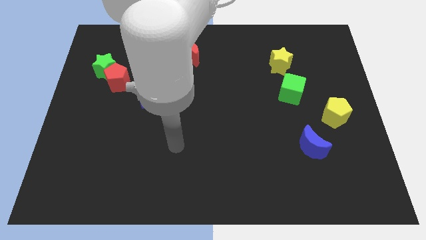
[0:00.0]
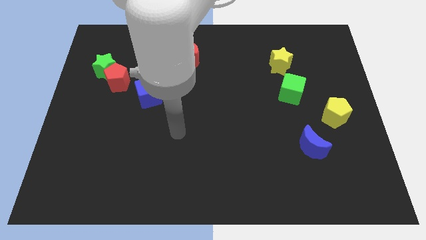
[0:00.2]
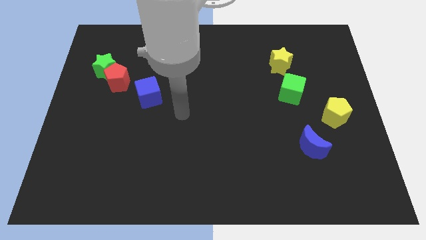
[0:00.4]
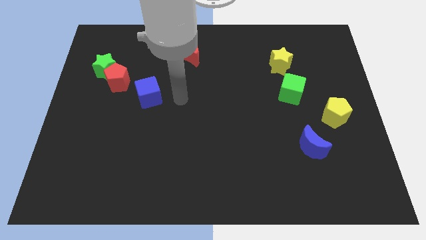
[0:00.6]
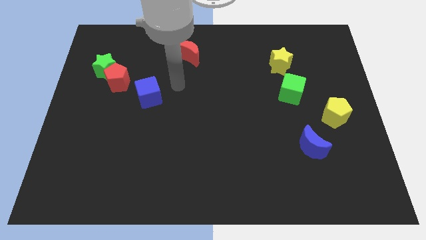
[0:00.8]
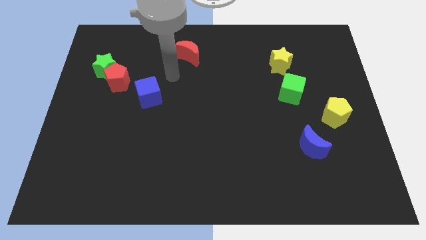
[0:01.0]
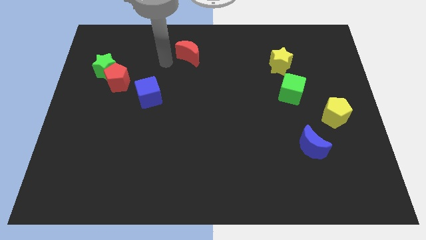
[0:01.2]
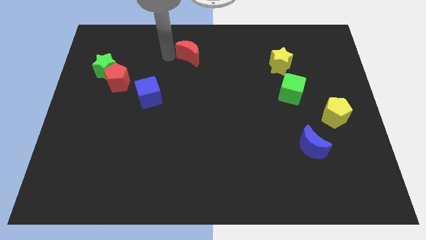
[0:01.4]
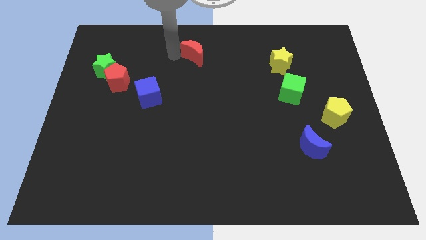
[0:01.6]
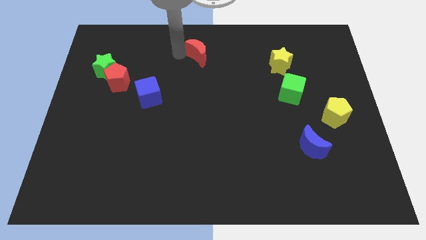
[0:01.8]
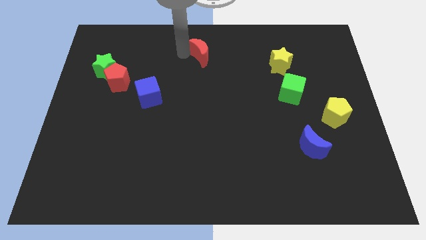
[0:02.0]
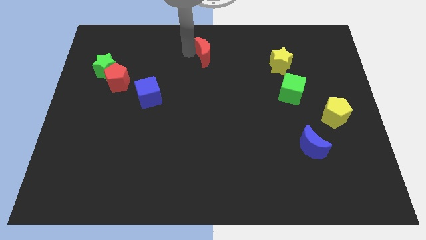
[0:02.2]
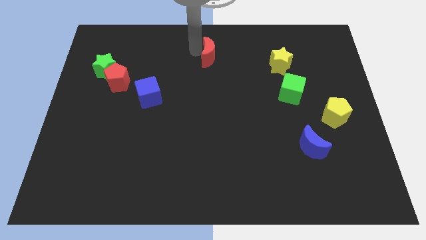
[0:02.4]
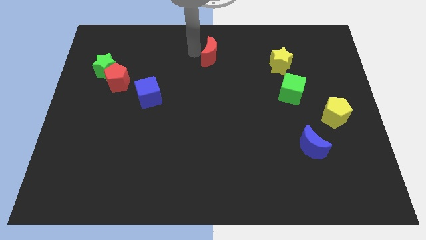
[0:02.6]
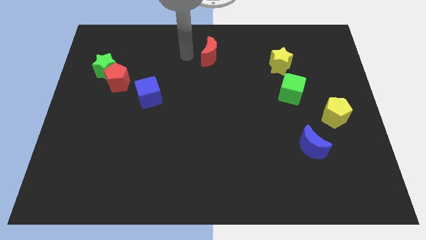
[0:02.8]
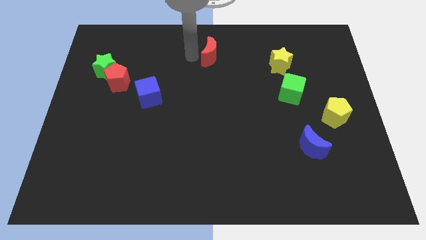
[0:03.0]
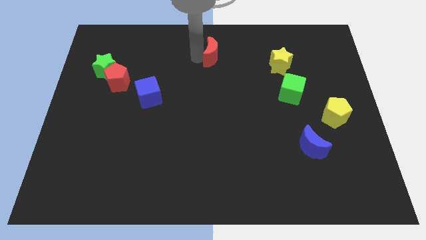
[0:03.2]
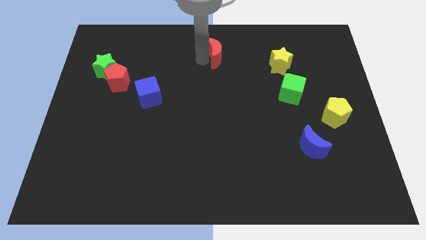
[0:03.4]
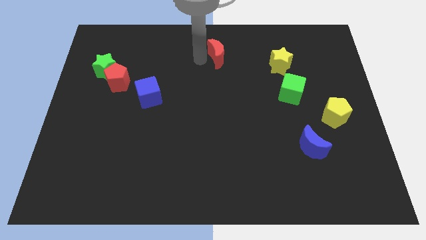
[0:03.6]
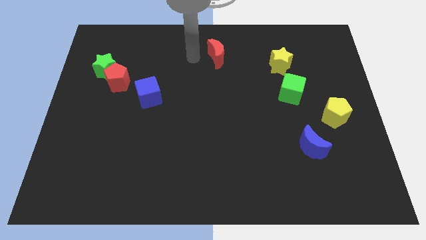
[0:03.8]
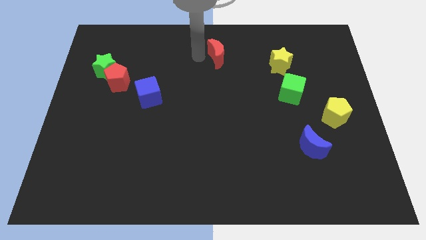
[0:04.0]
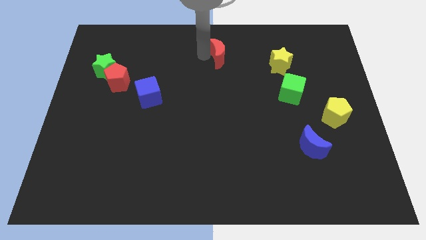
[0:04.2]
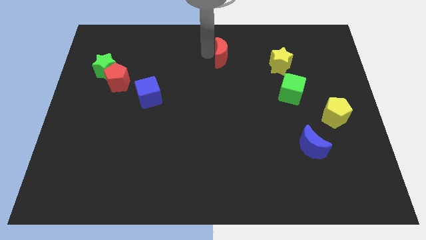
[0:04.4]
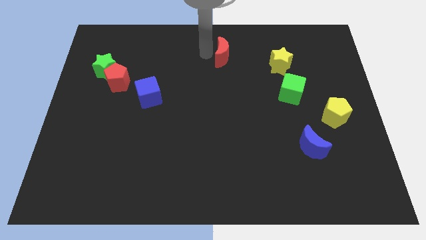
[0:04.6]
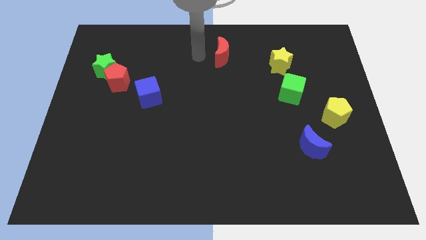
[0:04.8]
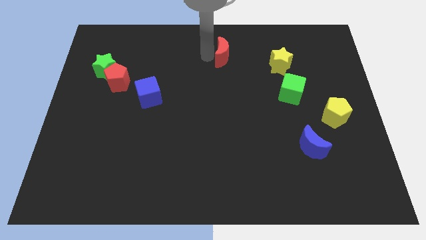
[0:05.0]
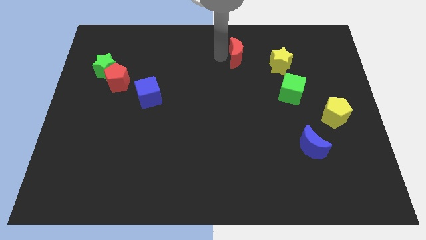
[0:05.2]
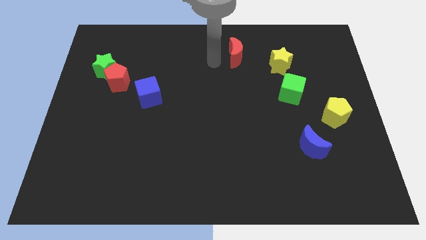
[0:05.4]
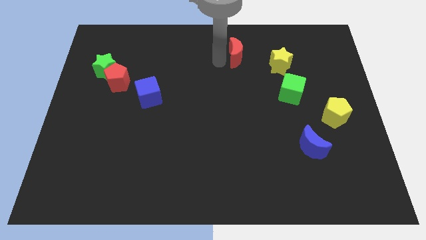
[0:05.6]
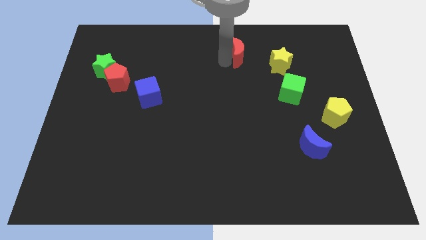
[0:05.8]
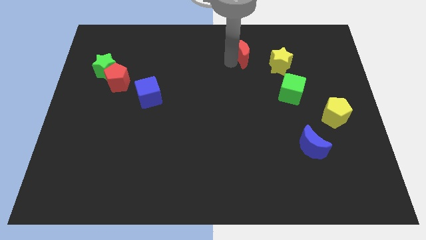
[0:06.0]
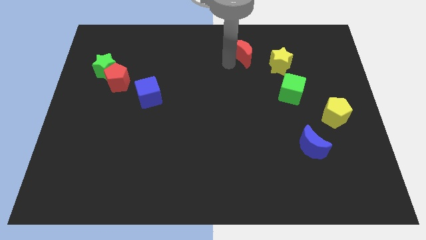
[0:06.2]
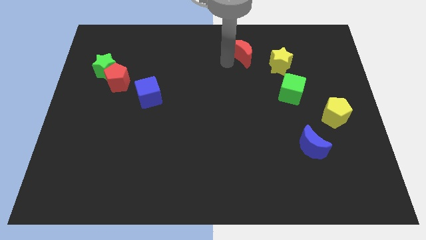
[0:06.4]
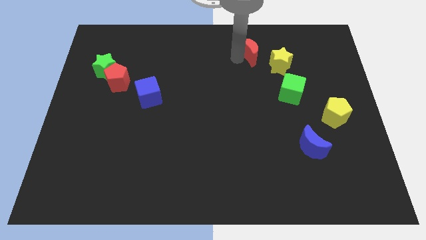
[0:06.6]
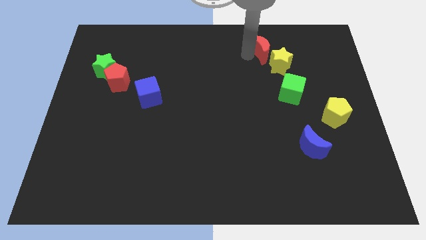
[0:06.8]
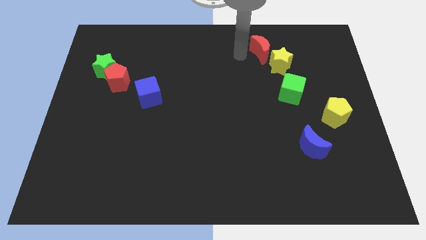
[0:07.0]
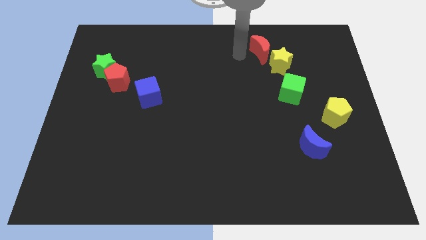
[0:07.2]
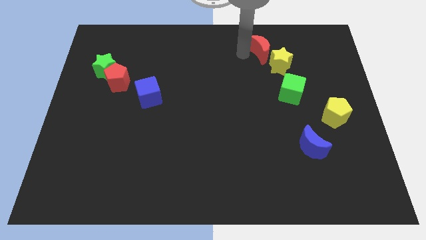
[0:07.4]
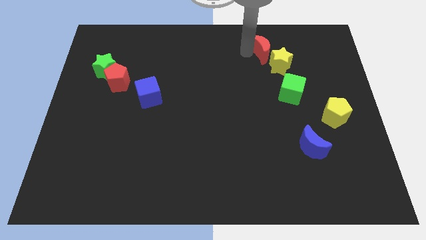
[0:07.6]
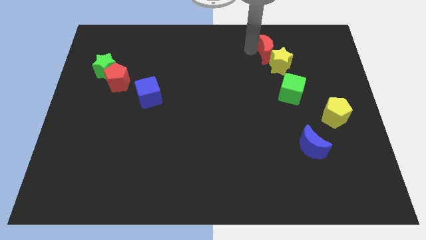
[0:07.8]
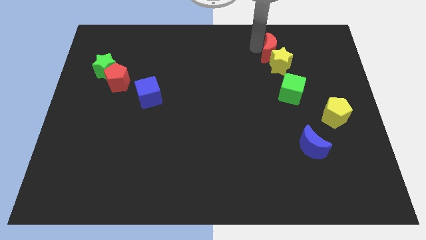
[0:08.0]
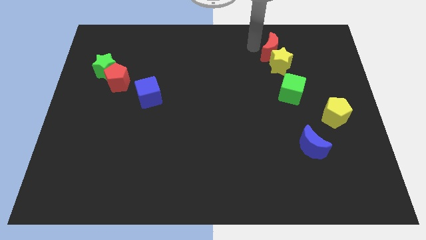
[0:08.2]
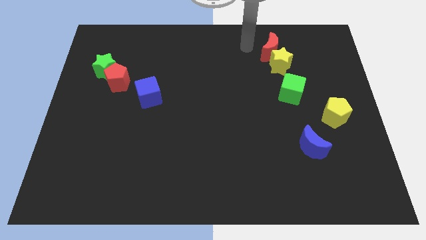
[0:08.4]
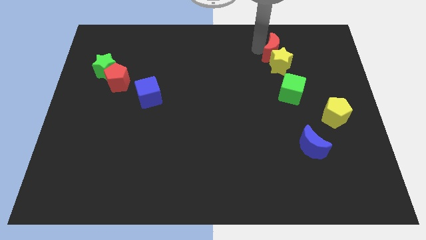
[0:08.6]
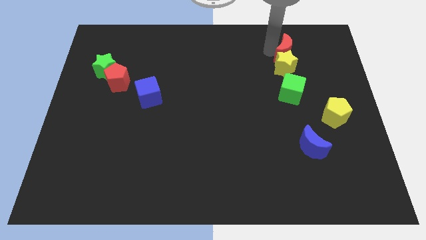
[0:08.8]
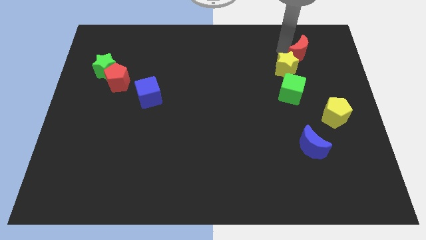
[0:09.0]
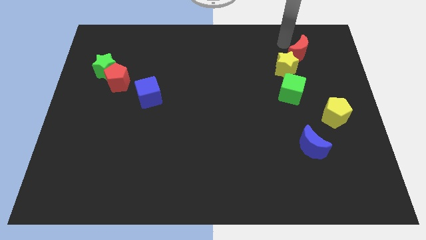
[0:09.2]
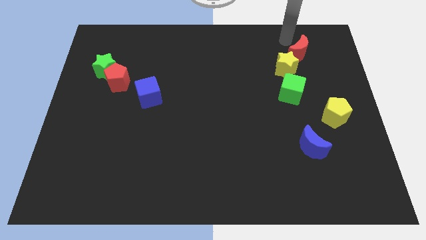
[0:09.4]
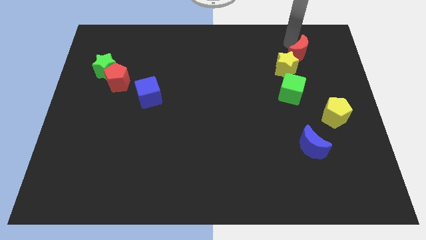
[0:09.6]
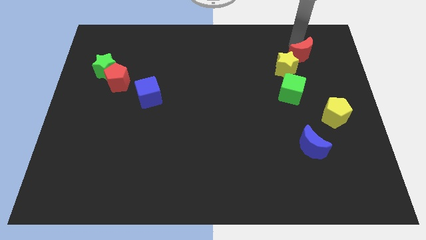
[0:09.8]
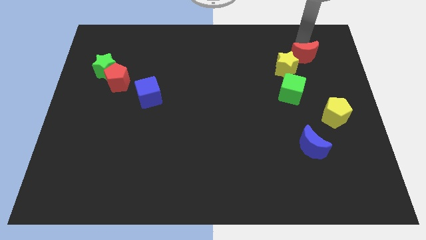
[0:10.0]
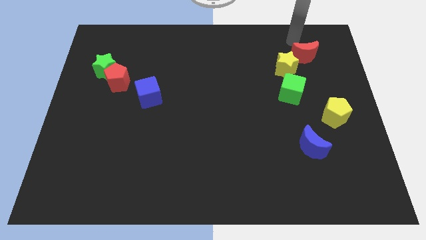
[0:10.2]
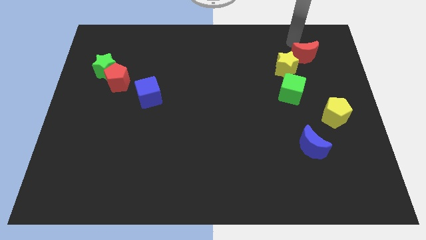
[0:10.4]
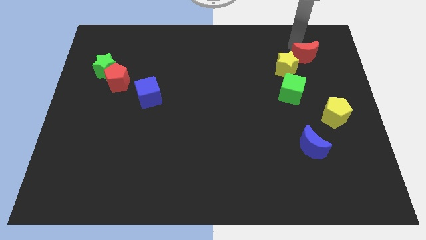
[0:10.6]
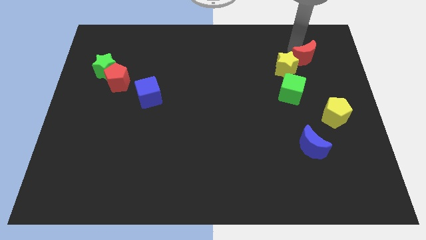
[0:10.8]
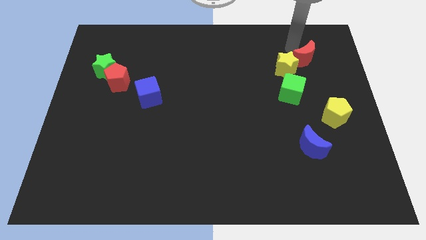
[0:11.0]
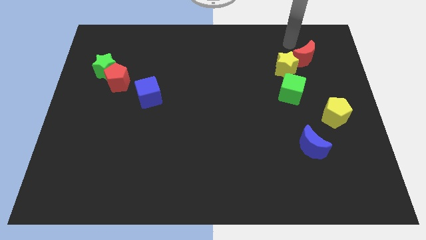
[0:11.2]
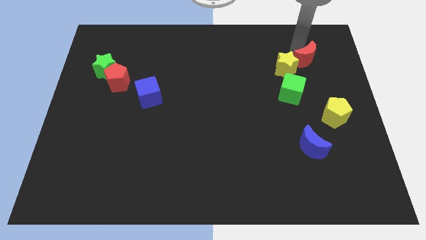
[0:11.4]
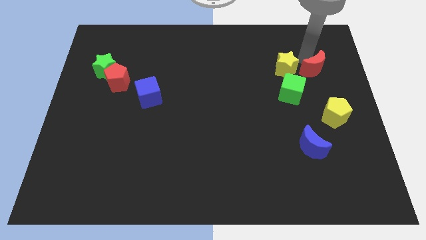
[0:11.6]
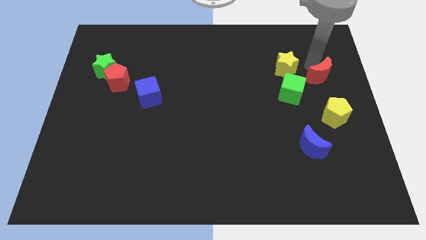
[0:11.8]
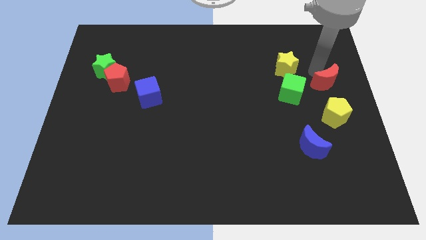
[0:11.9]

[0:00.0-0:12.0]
put the red moon to the right side of the board
